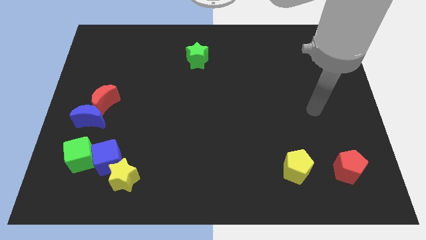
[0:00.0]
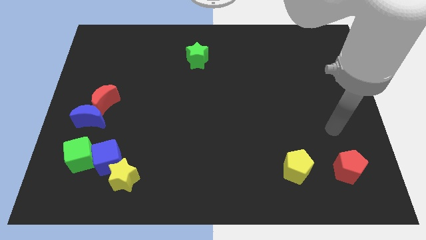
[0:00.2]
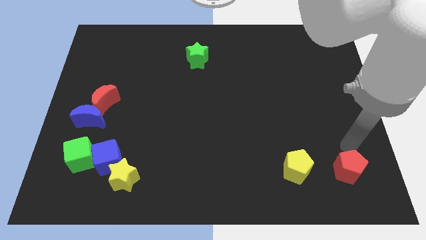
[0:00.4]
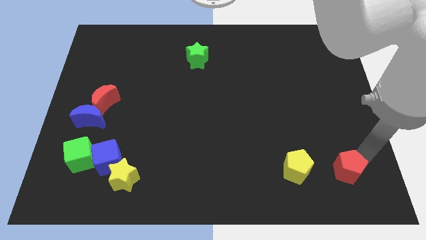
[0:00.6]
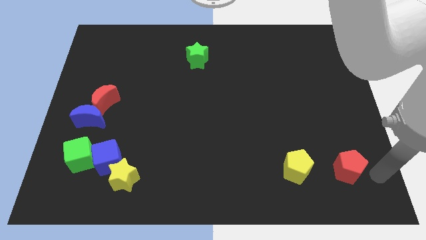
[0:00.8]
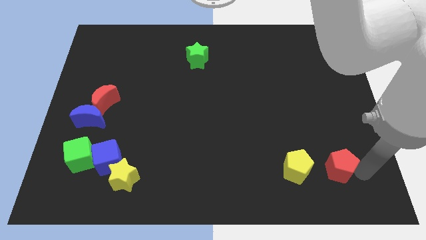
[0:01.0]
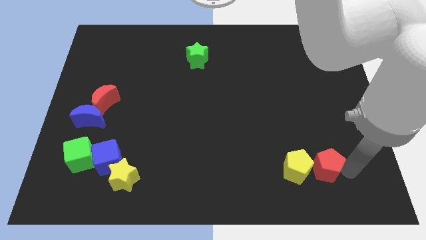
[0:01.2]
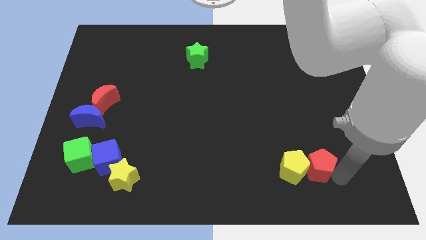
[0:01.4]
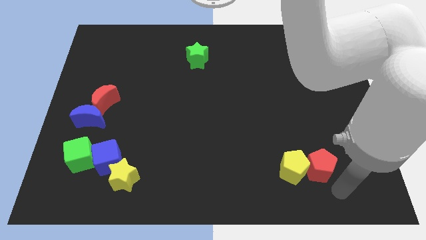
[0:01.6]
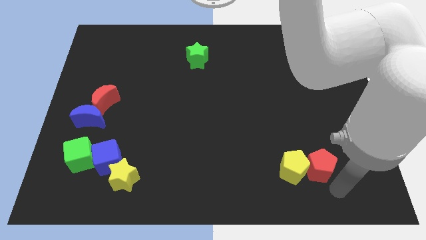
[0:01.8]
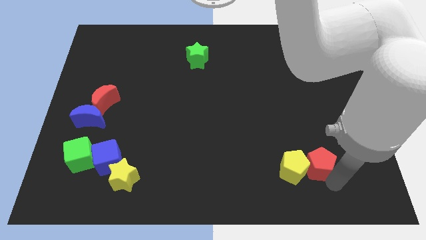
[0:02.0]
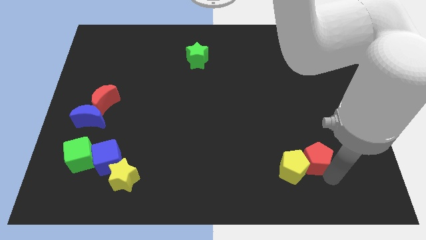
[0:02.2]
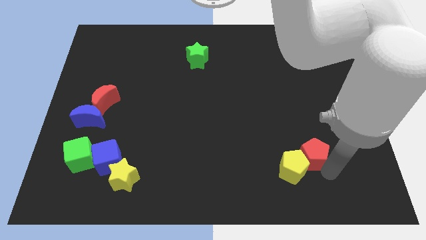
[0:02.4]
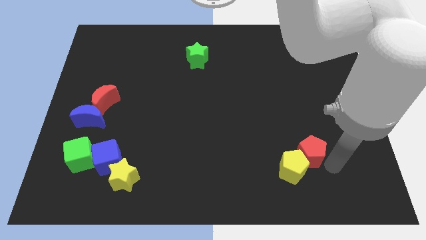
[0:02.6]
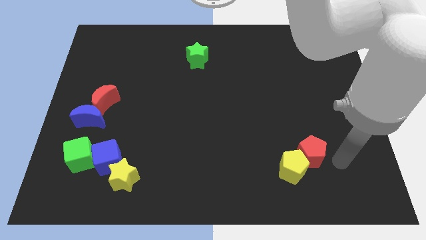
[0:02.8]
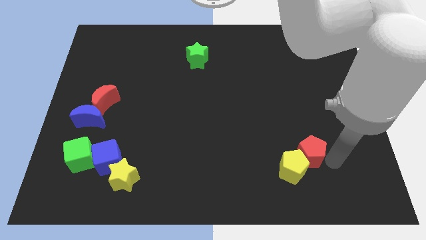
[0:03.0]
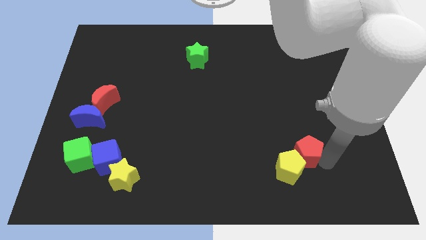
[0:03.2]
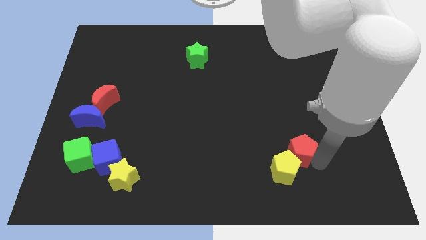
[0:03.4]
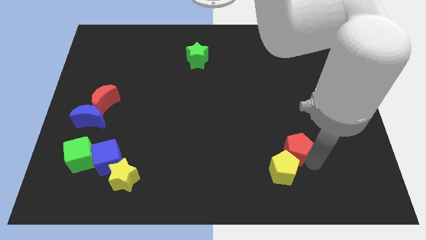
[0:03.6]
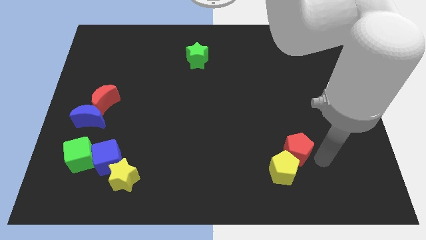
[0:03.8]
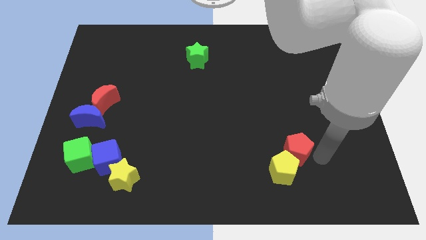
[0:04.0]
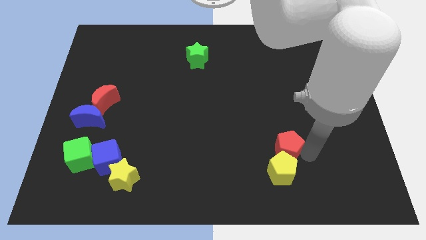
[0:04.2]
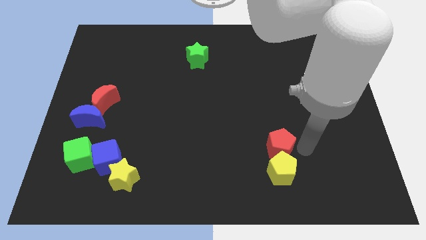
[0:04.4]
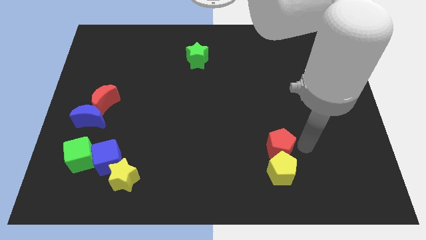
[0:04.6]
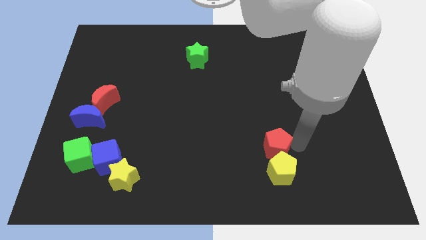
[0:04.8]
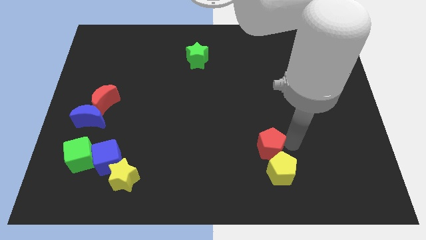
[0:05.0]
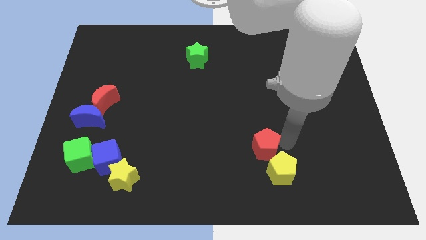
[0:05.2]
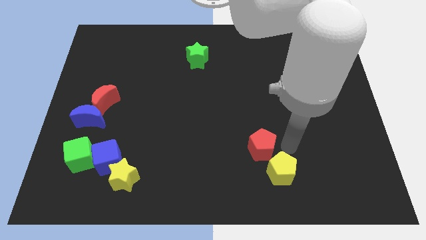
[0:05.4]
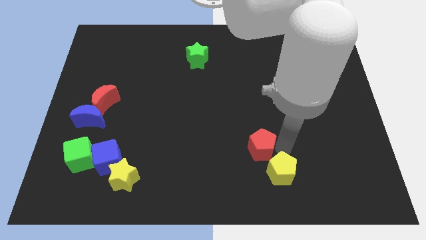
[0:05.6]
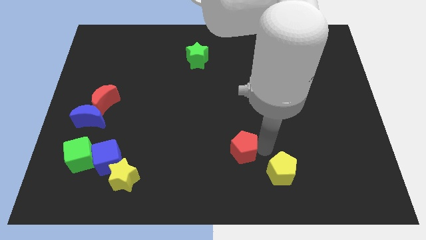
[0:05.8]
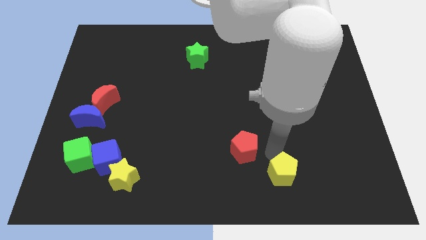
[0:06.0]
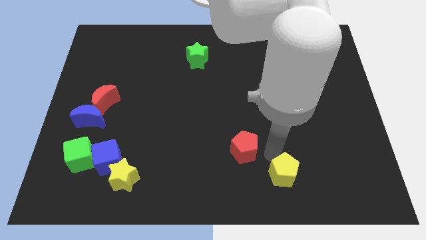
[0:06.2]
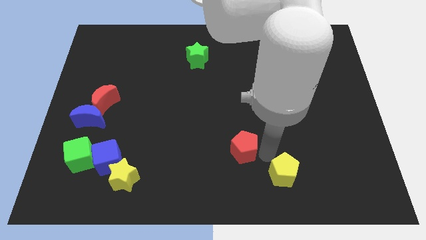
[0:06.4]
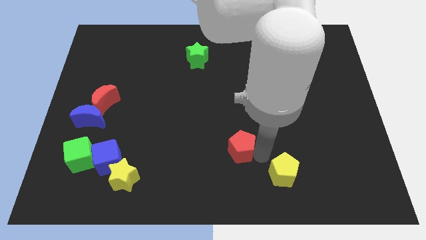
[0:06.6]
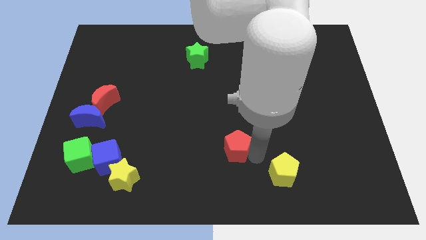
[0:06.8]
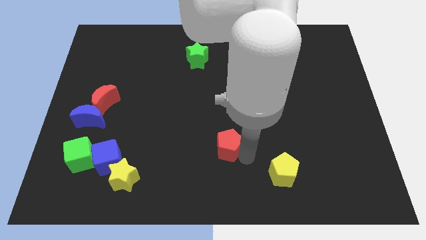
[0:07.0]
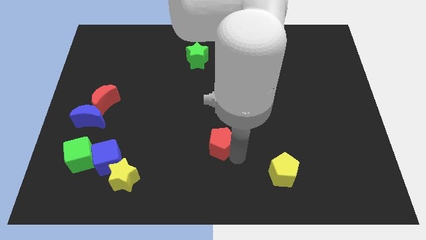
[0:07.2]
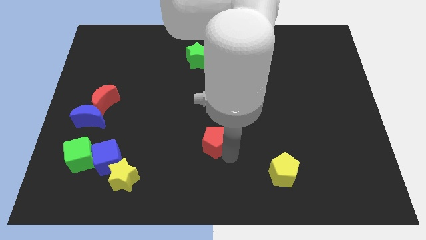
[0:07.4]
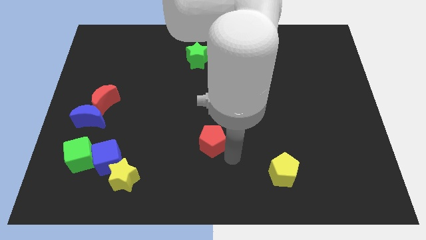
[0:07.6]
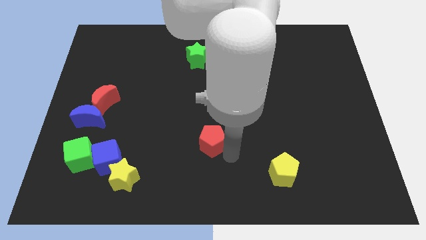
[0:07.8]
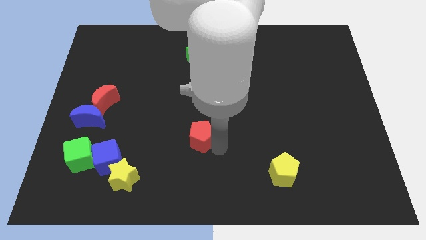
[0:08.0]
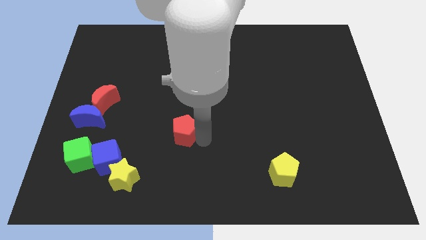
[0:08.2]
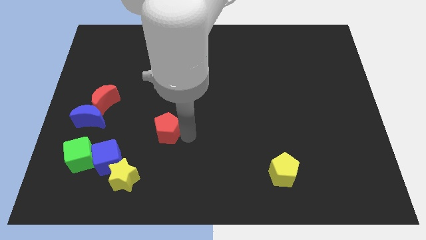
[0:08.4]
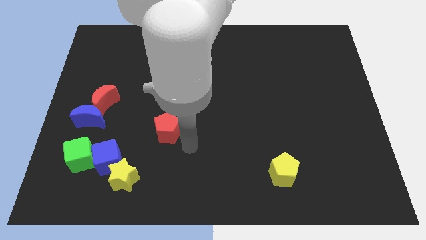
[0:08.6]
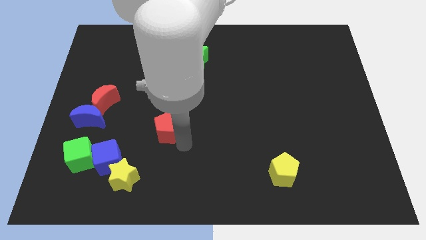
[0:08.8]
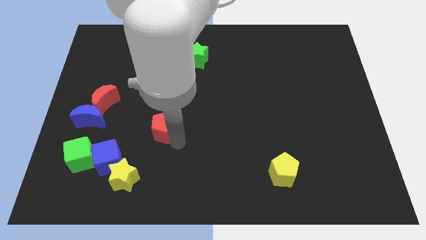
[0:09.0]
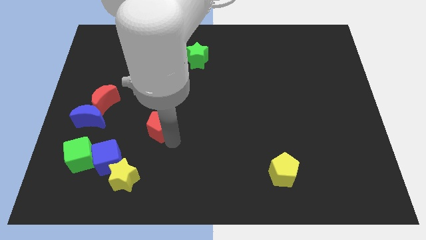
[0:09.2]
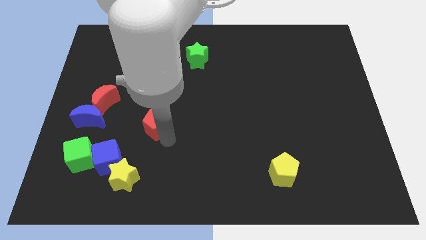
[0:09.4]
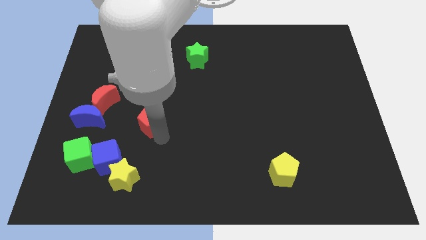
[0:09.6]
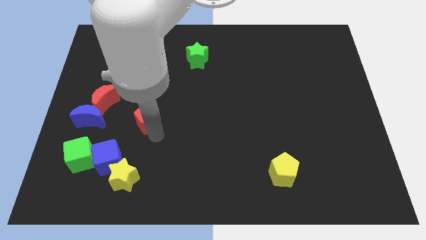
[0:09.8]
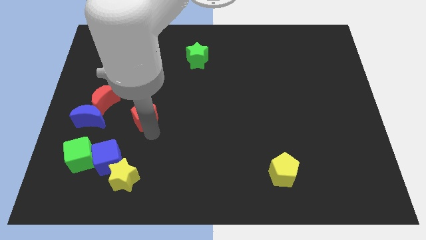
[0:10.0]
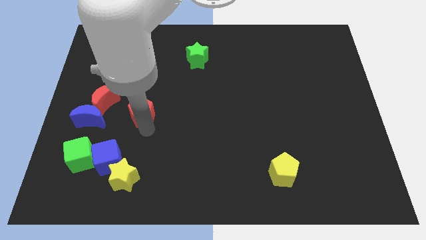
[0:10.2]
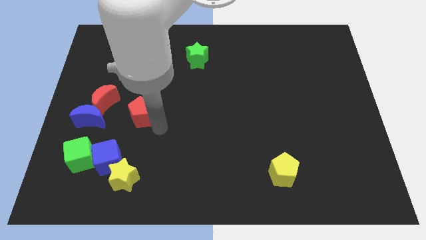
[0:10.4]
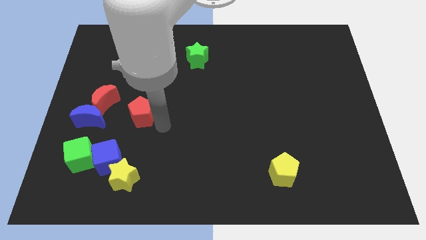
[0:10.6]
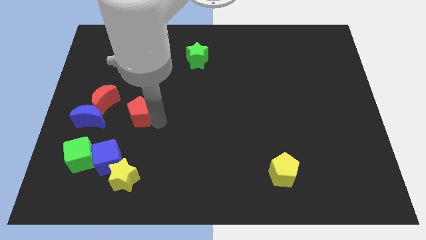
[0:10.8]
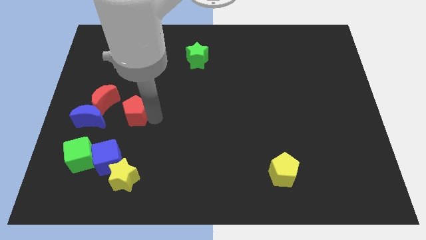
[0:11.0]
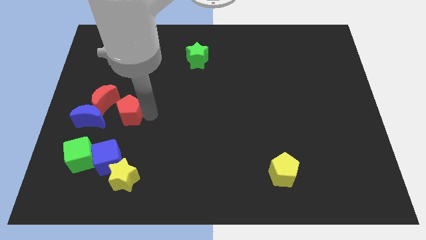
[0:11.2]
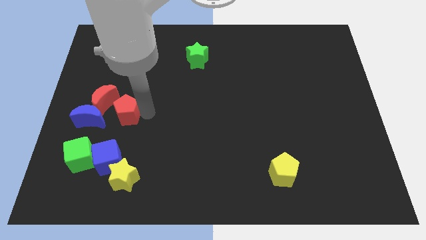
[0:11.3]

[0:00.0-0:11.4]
slide the red pentagon diagonally up and to the right of the blue moon

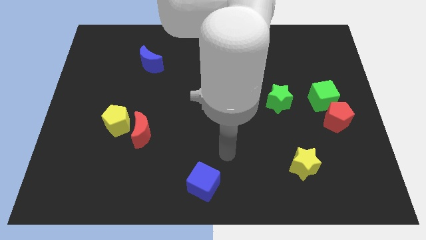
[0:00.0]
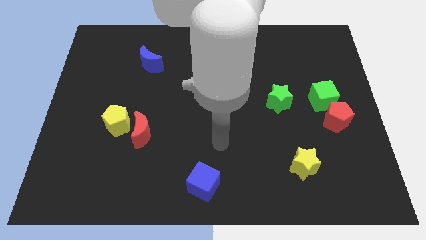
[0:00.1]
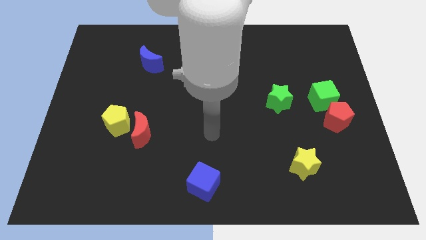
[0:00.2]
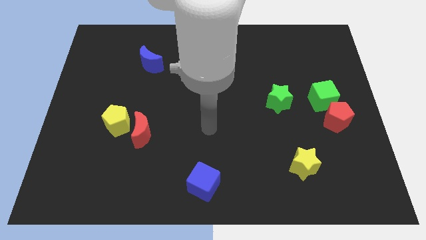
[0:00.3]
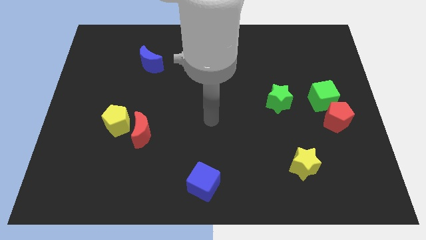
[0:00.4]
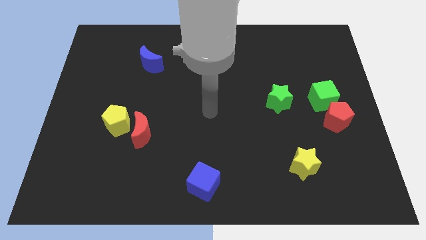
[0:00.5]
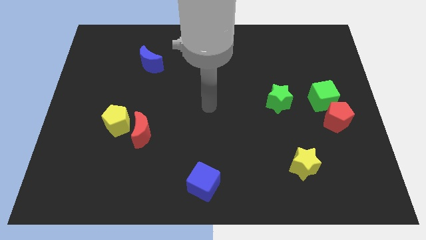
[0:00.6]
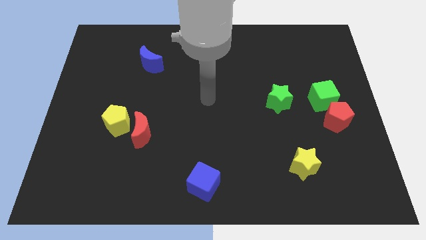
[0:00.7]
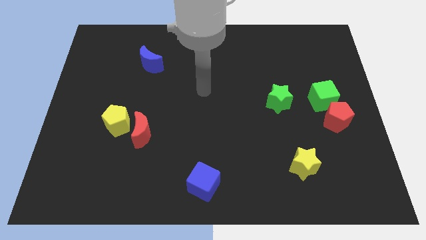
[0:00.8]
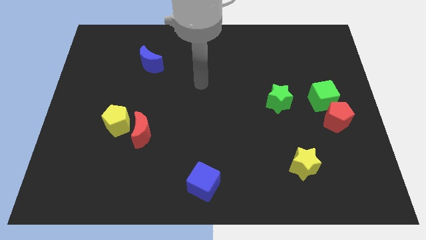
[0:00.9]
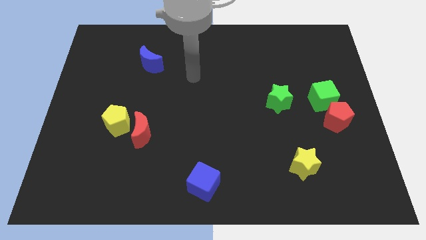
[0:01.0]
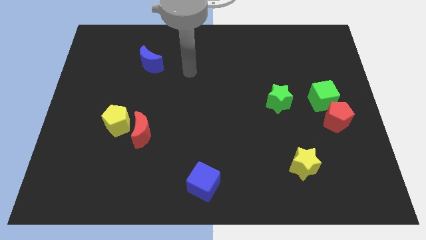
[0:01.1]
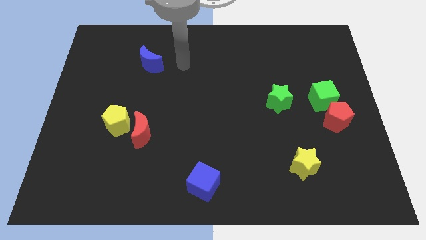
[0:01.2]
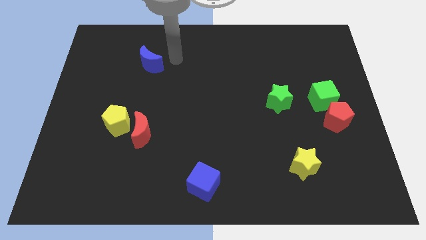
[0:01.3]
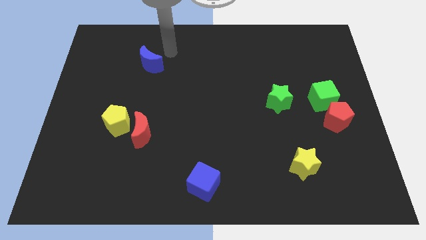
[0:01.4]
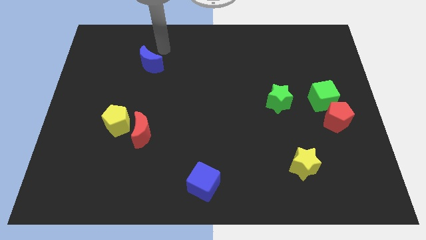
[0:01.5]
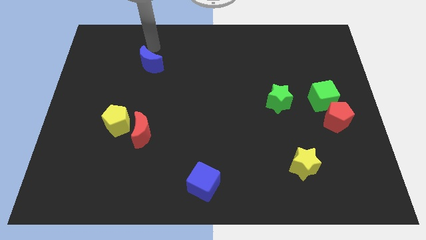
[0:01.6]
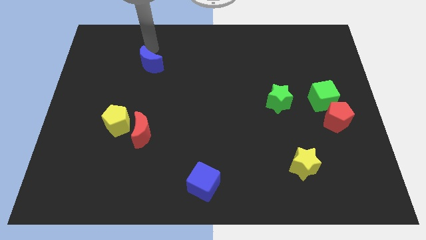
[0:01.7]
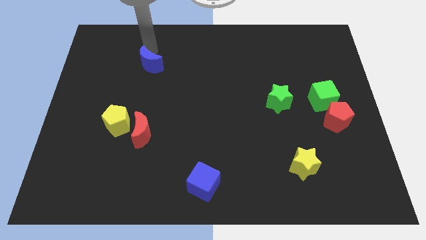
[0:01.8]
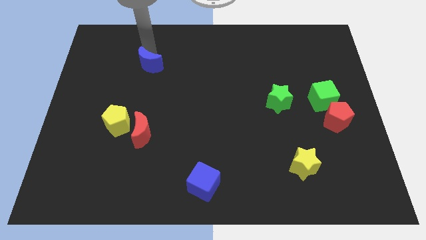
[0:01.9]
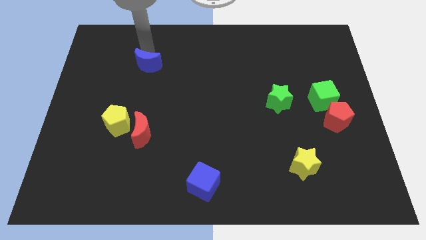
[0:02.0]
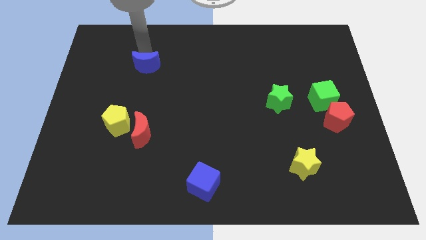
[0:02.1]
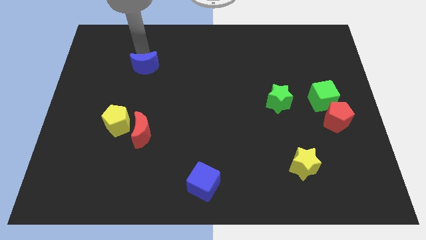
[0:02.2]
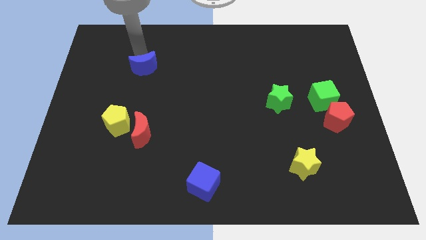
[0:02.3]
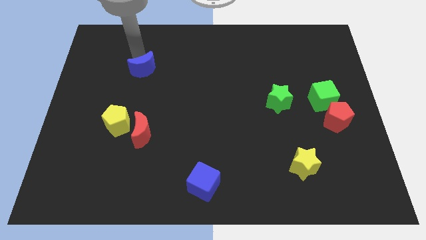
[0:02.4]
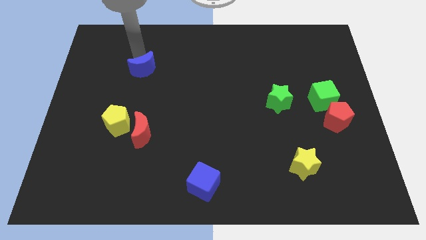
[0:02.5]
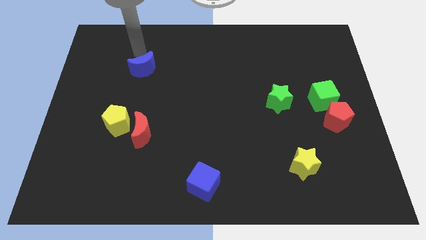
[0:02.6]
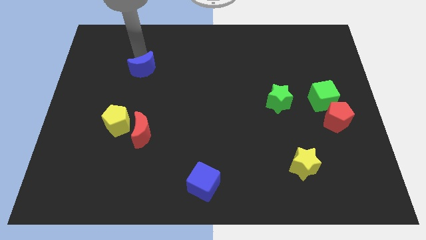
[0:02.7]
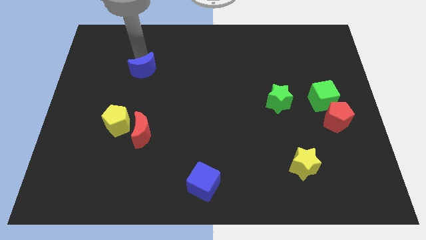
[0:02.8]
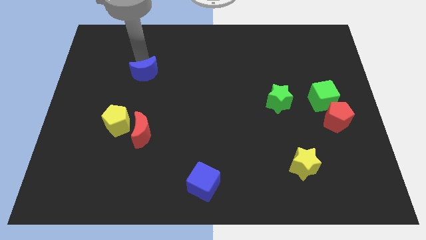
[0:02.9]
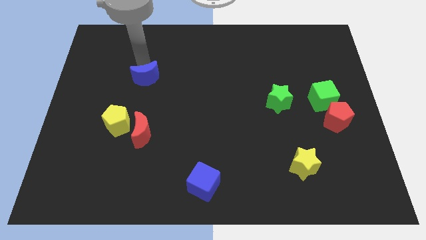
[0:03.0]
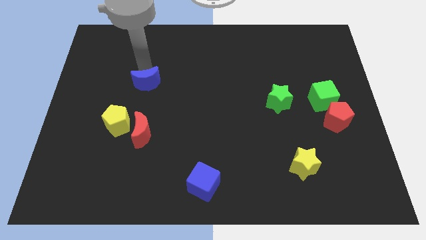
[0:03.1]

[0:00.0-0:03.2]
slide the blue moon to the top side of the red moon
